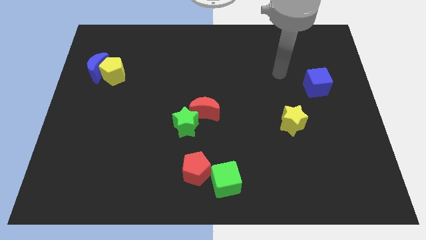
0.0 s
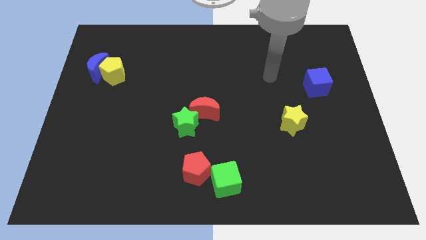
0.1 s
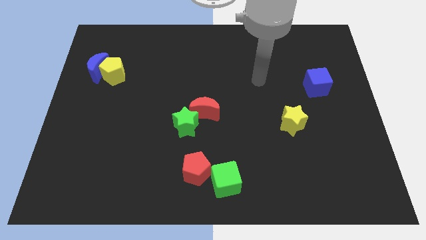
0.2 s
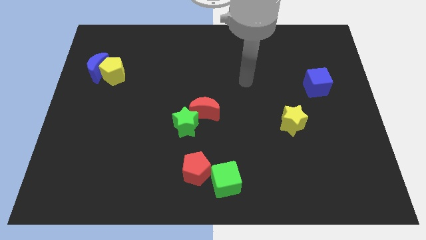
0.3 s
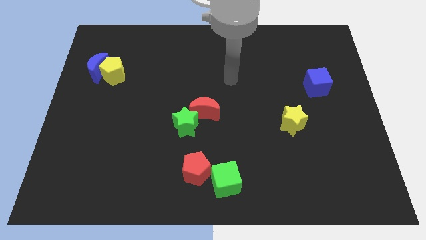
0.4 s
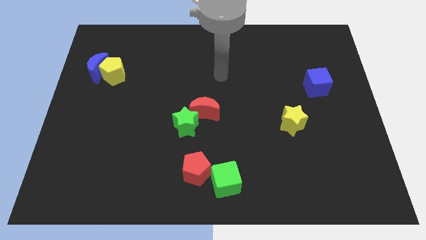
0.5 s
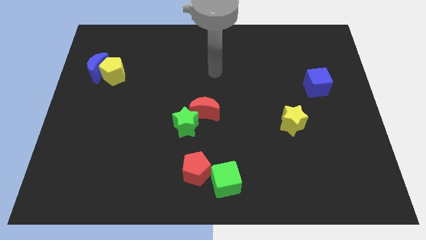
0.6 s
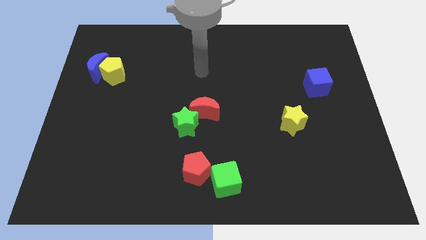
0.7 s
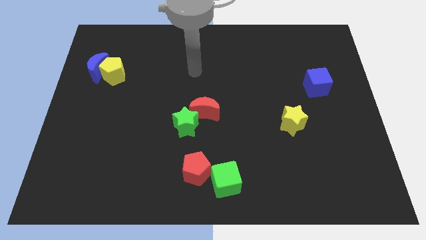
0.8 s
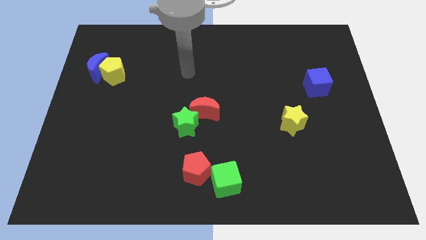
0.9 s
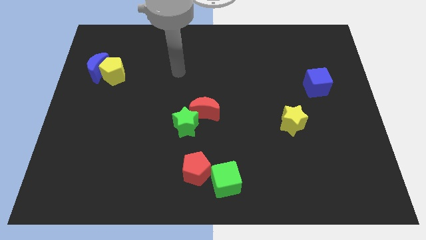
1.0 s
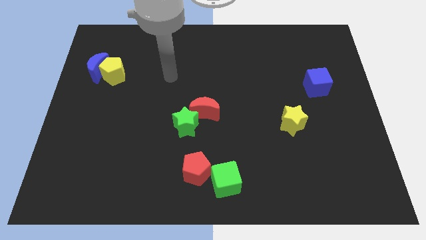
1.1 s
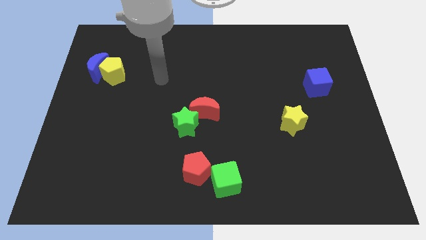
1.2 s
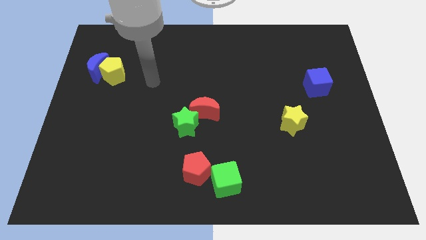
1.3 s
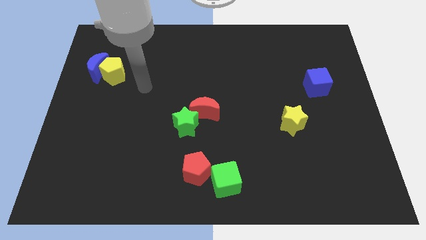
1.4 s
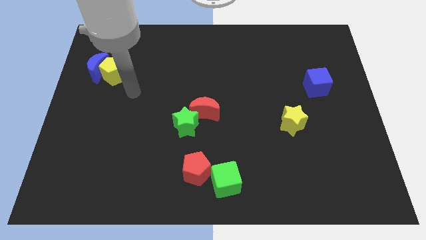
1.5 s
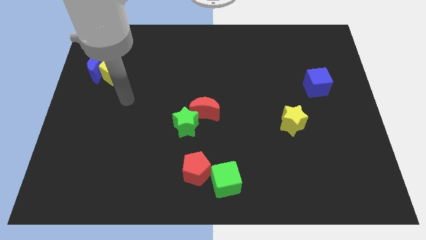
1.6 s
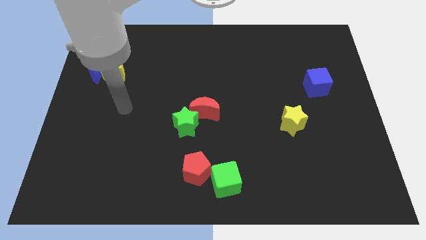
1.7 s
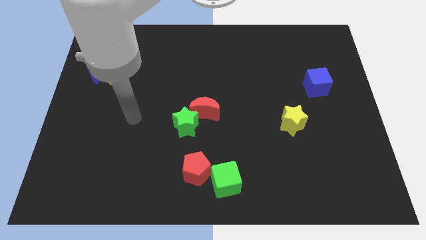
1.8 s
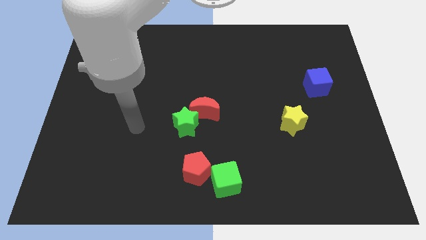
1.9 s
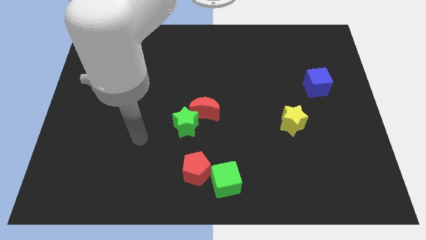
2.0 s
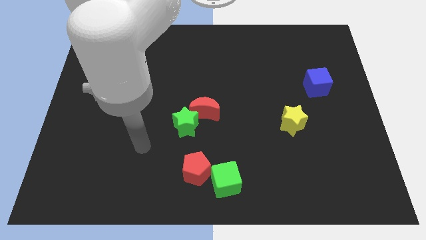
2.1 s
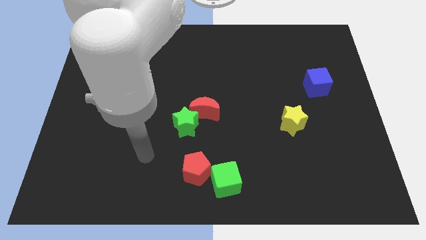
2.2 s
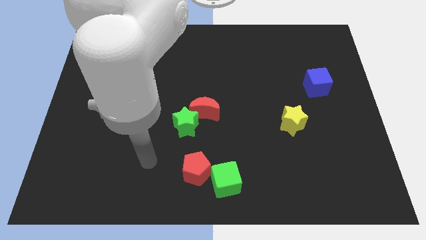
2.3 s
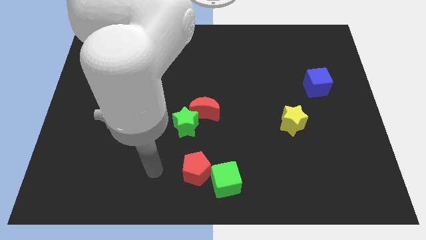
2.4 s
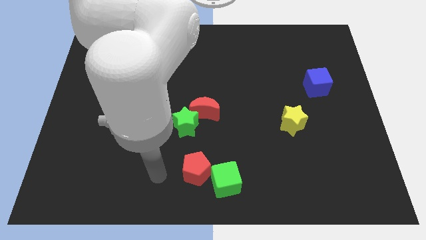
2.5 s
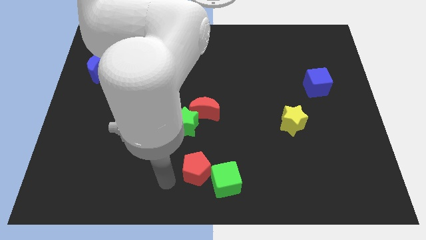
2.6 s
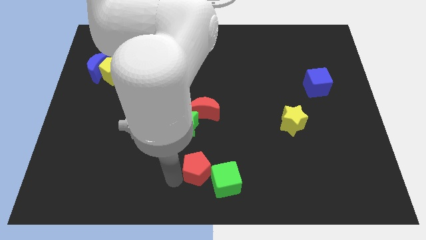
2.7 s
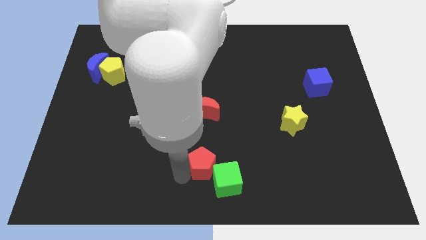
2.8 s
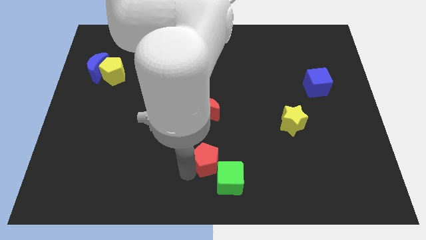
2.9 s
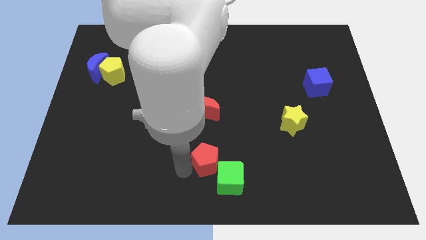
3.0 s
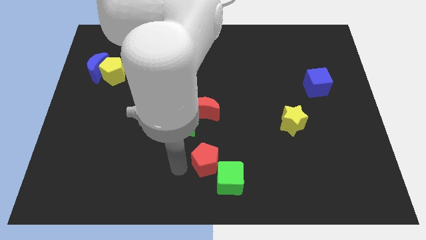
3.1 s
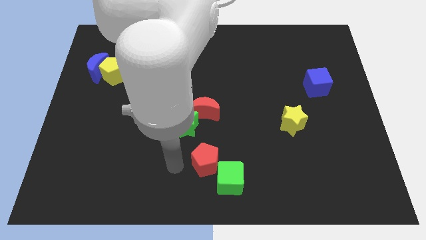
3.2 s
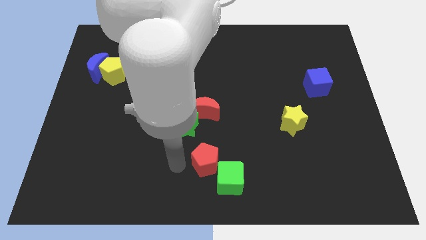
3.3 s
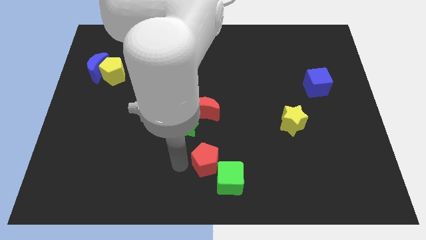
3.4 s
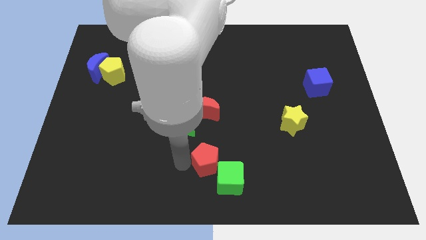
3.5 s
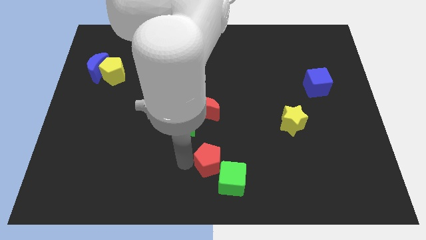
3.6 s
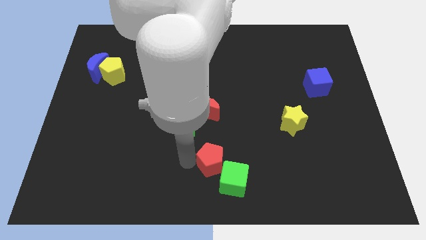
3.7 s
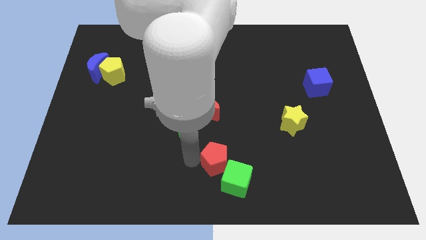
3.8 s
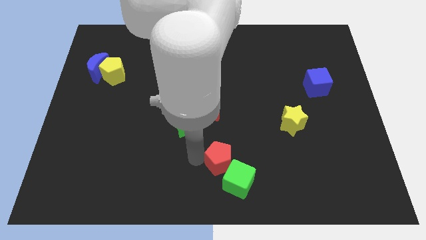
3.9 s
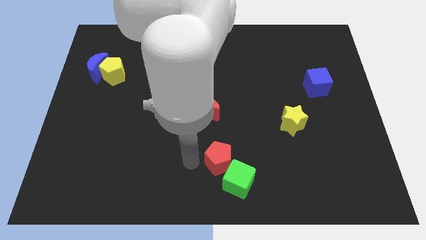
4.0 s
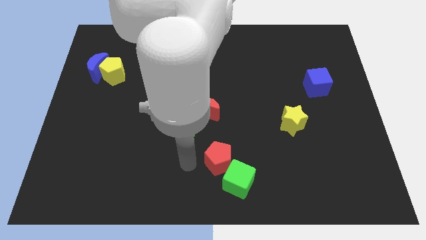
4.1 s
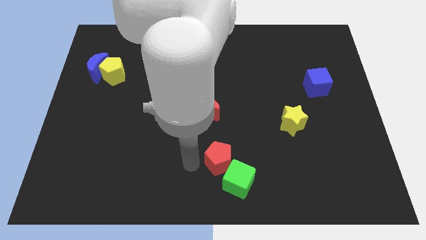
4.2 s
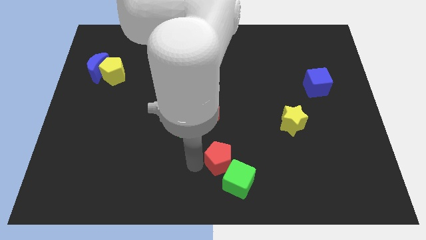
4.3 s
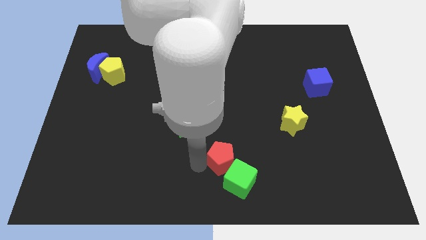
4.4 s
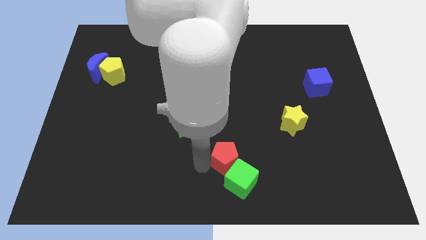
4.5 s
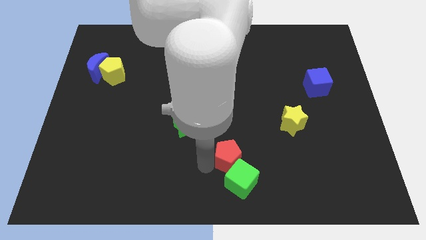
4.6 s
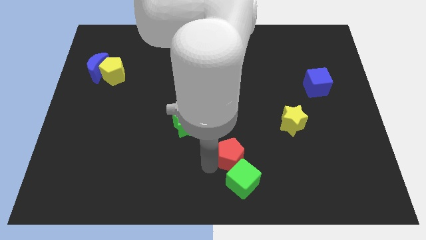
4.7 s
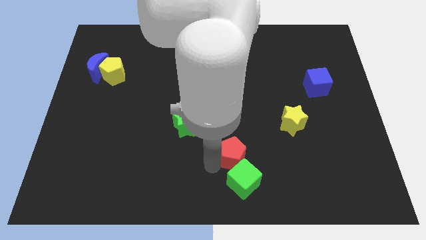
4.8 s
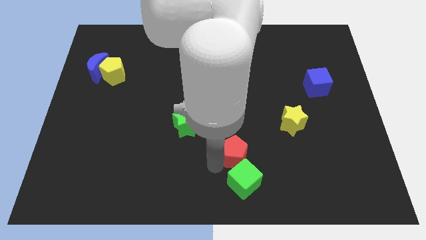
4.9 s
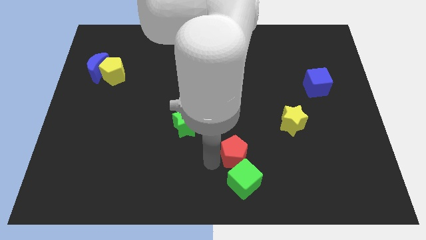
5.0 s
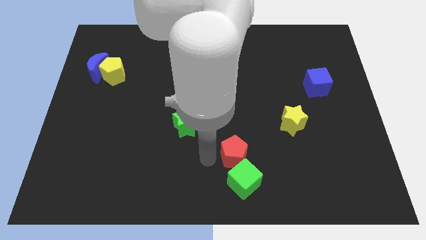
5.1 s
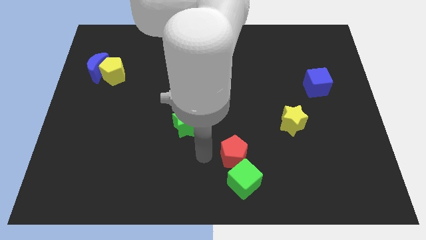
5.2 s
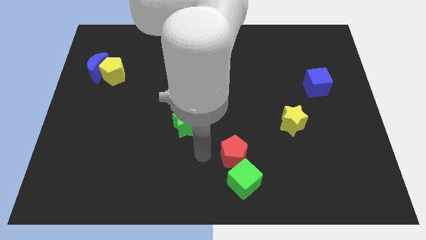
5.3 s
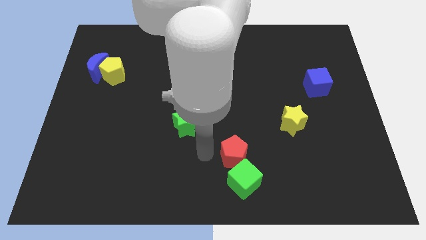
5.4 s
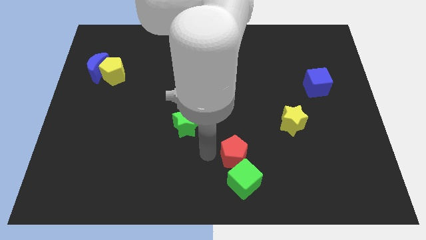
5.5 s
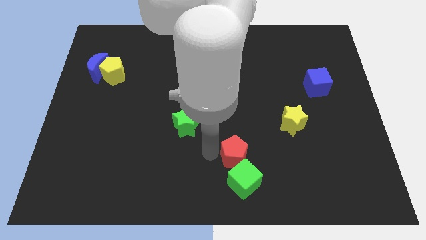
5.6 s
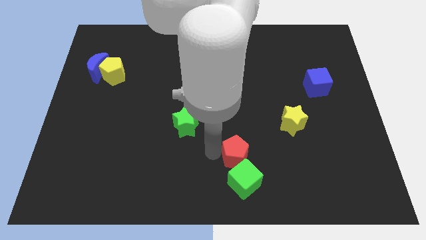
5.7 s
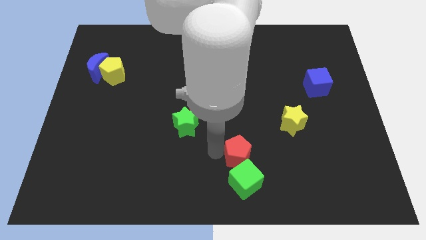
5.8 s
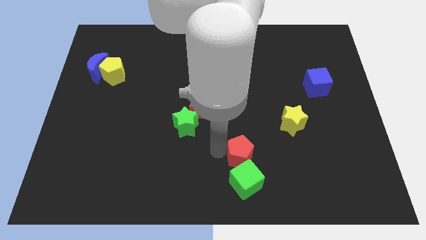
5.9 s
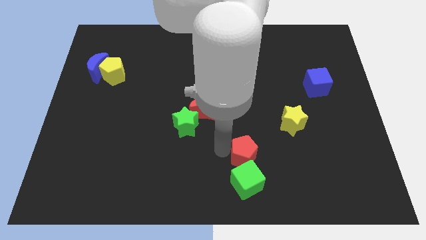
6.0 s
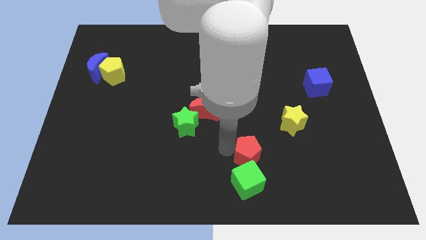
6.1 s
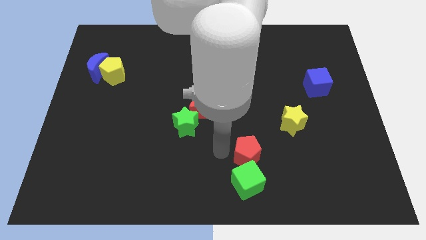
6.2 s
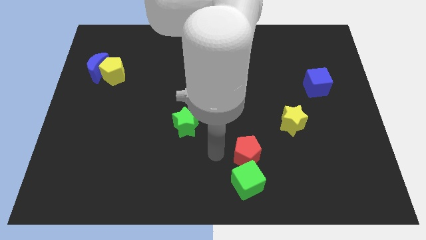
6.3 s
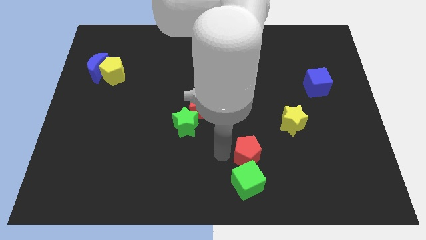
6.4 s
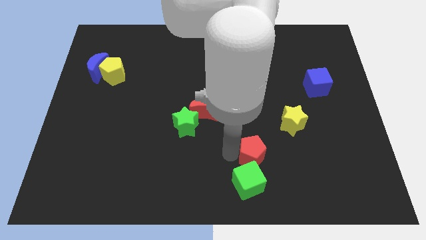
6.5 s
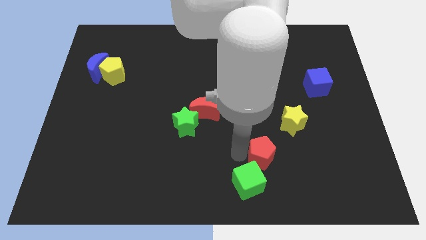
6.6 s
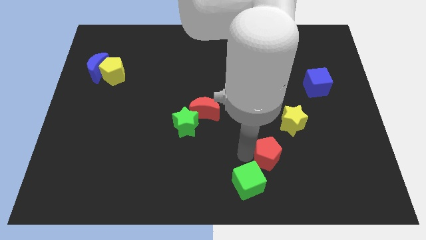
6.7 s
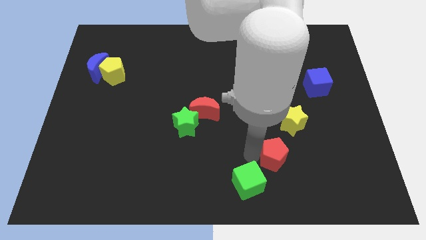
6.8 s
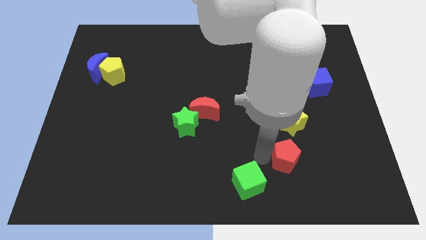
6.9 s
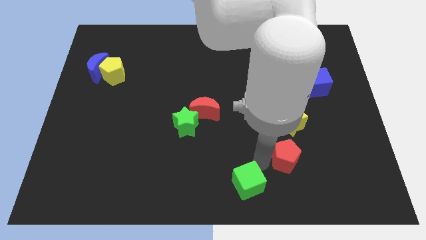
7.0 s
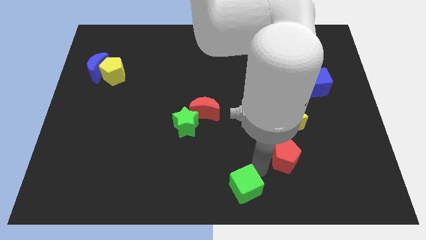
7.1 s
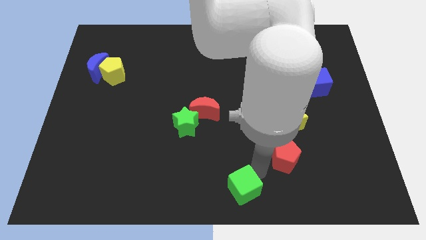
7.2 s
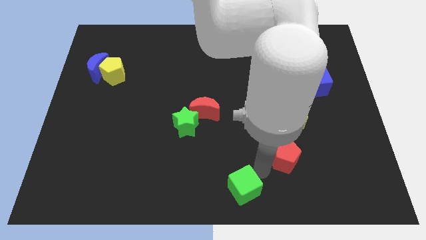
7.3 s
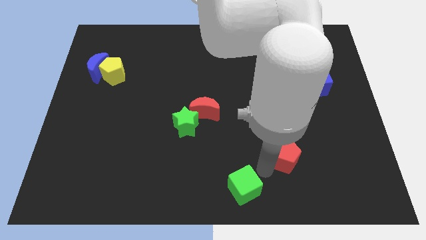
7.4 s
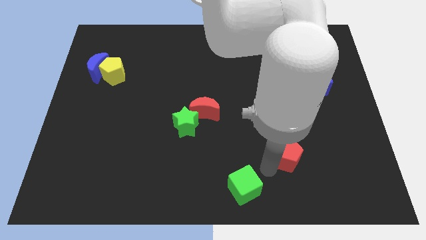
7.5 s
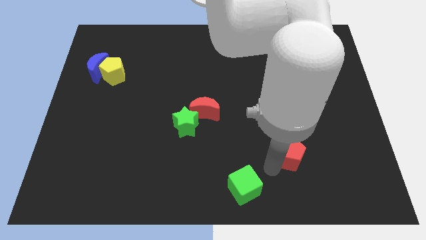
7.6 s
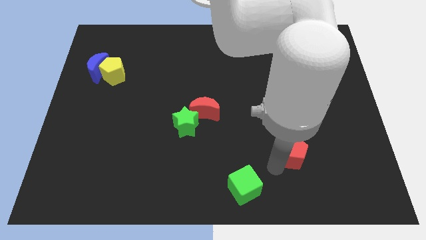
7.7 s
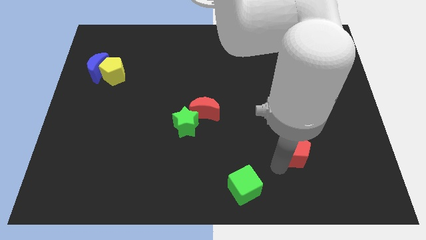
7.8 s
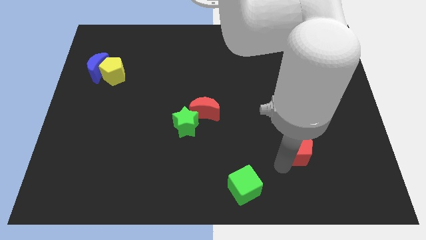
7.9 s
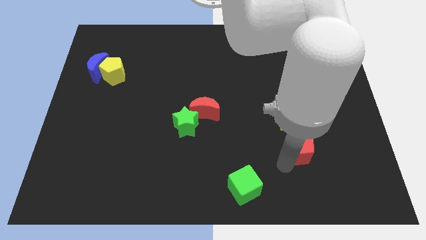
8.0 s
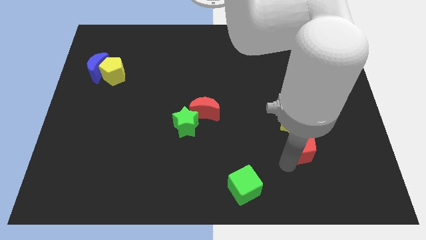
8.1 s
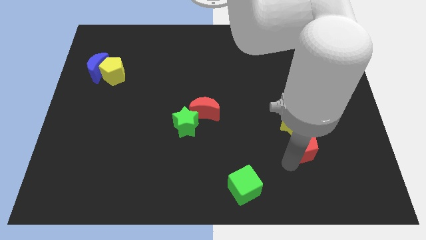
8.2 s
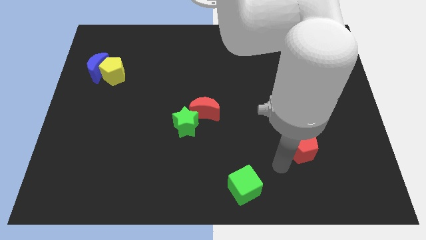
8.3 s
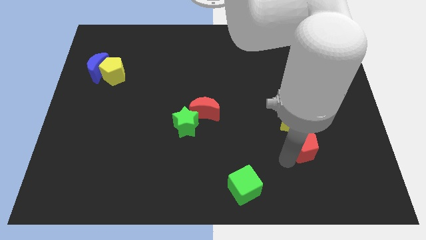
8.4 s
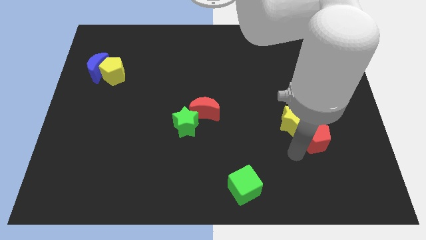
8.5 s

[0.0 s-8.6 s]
move the red pentagon to the right side of the yellow star
